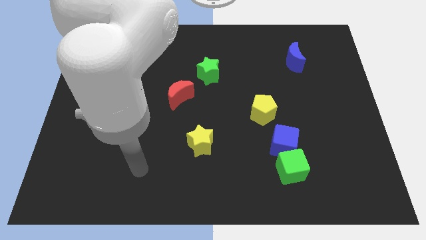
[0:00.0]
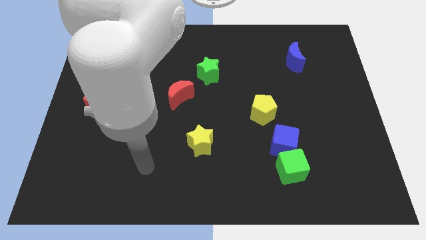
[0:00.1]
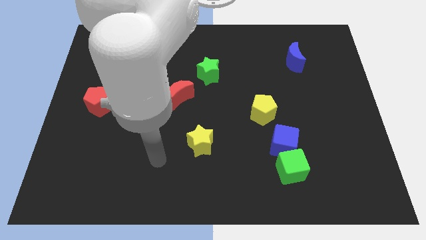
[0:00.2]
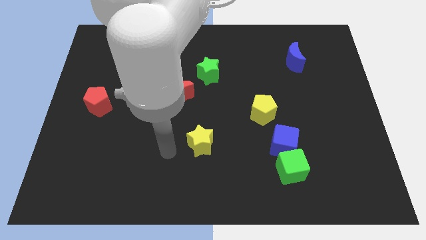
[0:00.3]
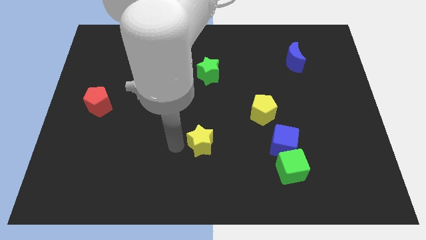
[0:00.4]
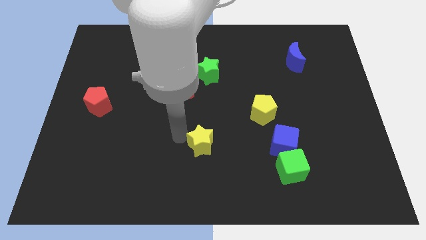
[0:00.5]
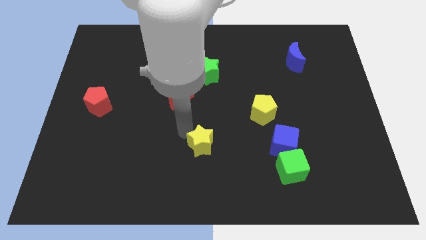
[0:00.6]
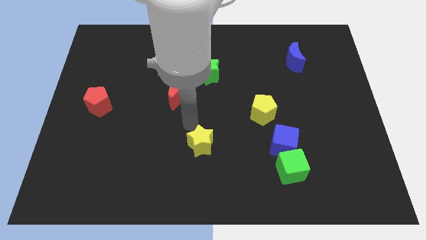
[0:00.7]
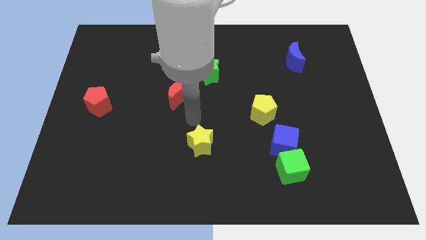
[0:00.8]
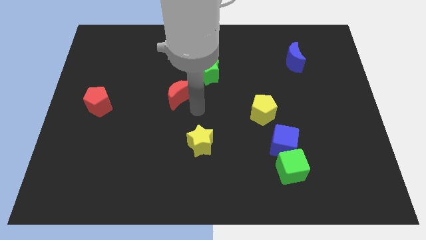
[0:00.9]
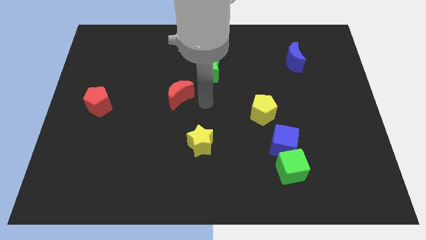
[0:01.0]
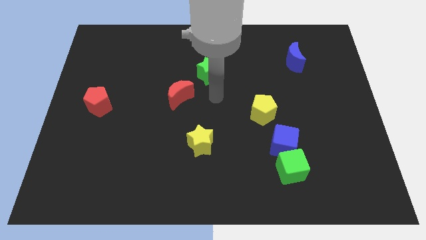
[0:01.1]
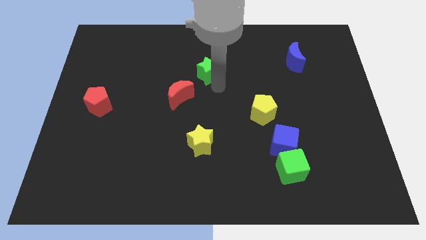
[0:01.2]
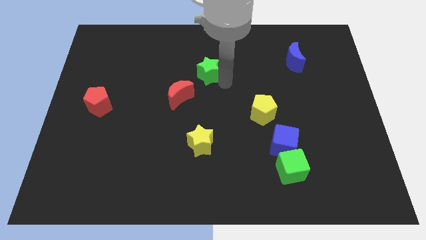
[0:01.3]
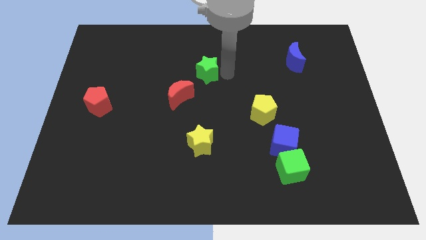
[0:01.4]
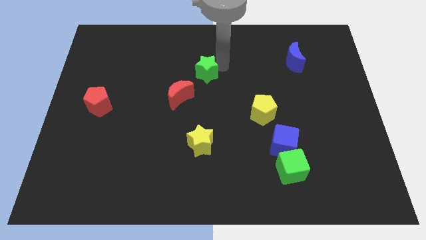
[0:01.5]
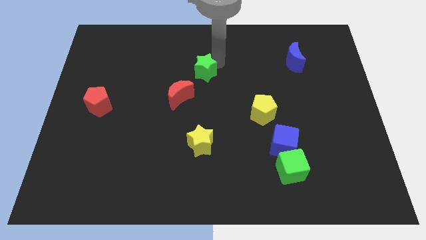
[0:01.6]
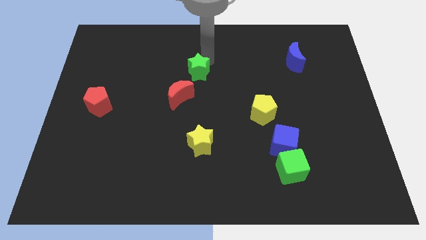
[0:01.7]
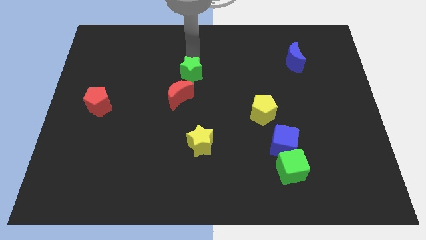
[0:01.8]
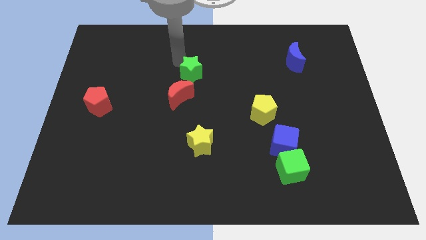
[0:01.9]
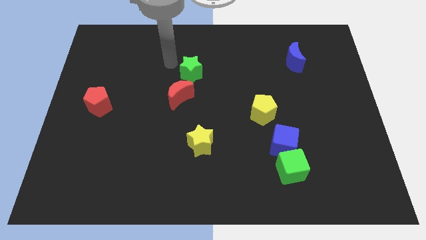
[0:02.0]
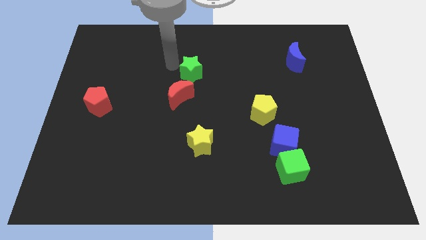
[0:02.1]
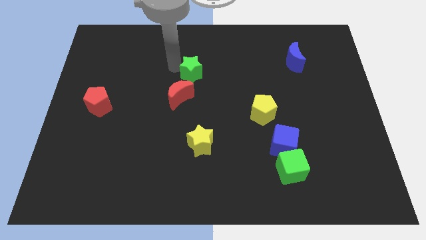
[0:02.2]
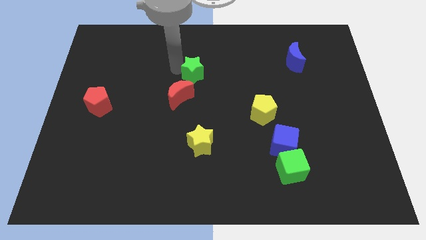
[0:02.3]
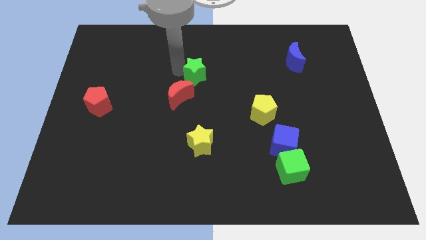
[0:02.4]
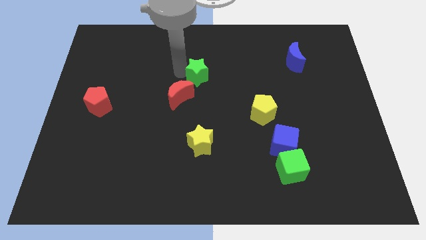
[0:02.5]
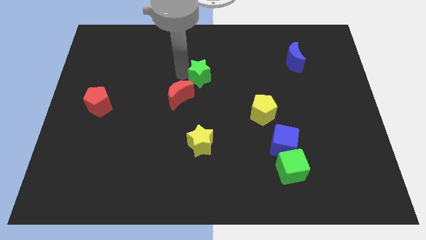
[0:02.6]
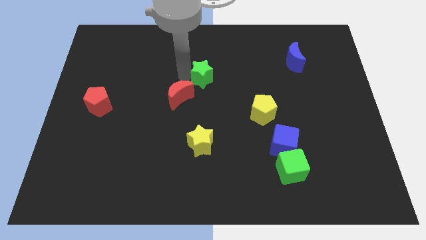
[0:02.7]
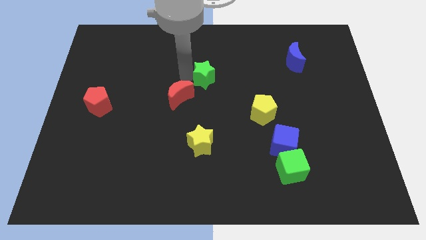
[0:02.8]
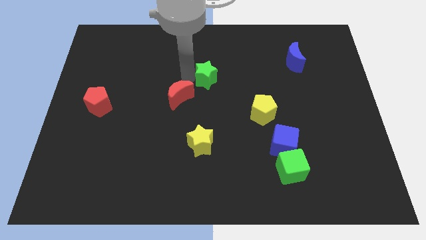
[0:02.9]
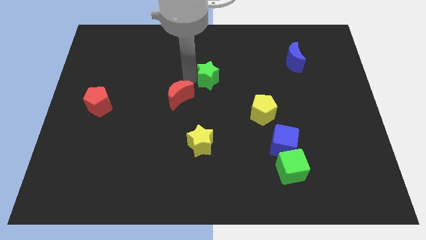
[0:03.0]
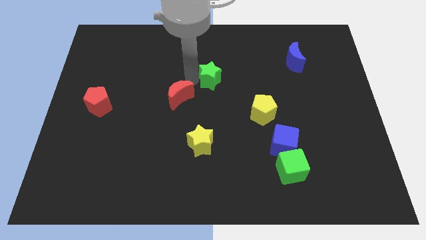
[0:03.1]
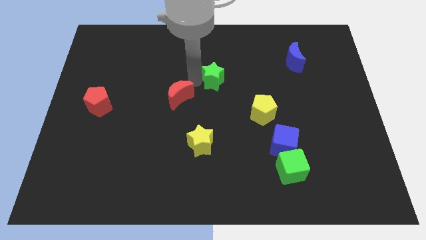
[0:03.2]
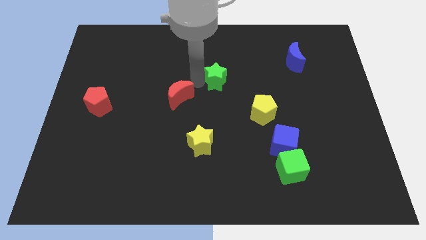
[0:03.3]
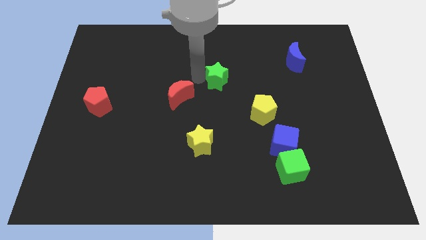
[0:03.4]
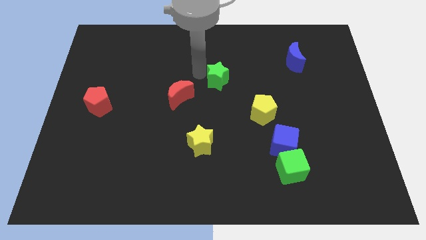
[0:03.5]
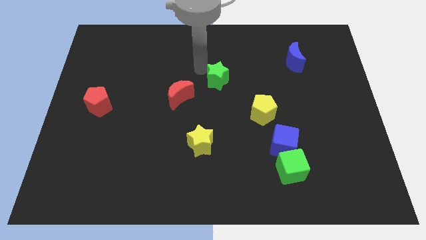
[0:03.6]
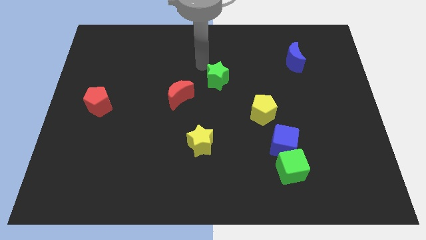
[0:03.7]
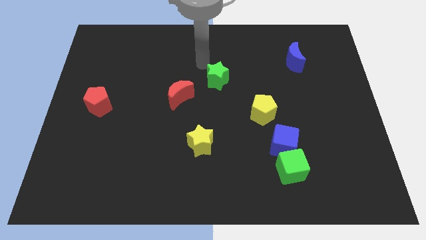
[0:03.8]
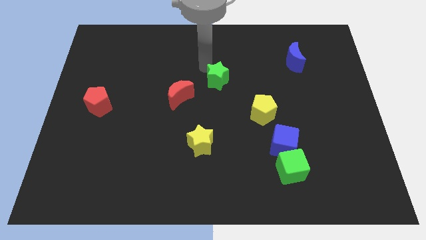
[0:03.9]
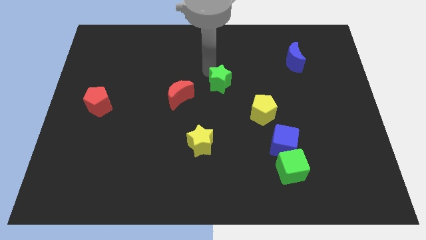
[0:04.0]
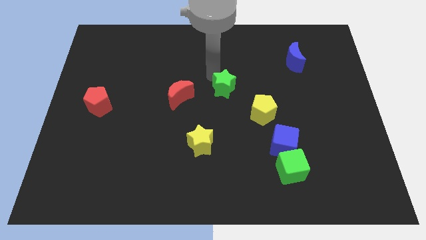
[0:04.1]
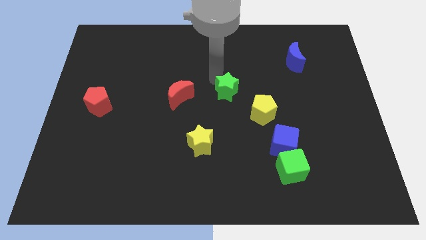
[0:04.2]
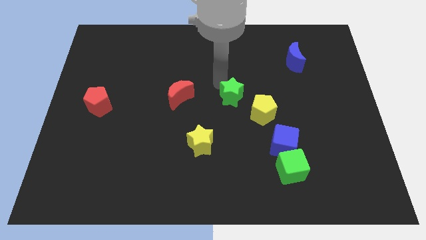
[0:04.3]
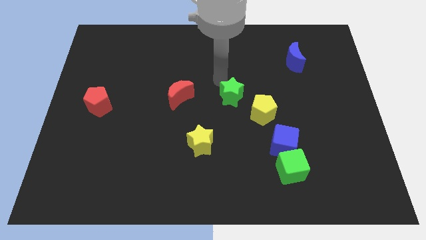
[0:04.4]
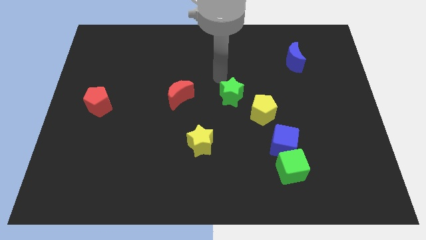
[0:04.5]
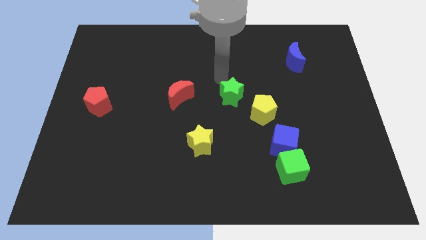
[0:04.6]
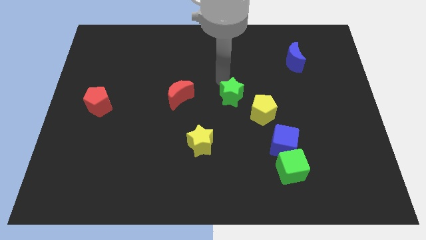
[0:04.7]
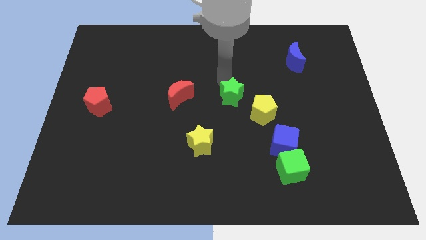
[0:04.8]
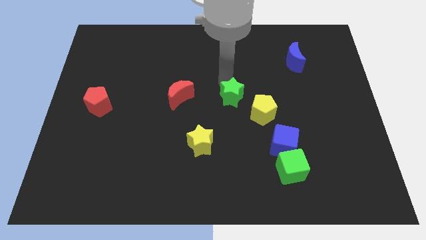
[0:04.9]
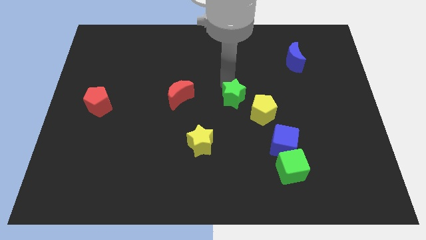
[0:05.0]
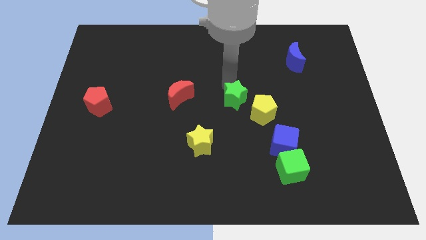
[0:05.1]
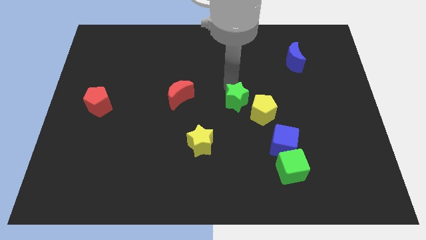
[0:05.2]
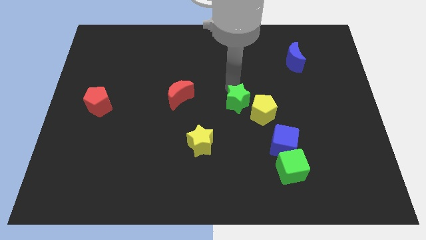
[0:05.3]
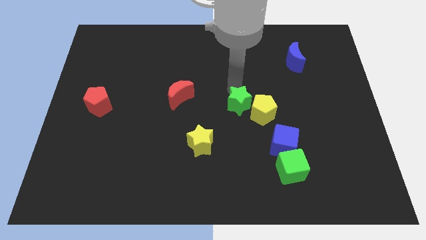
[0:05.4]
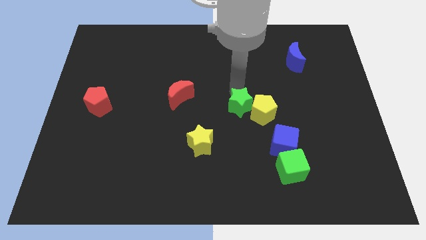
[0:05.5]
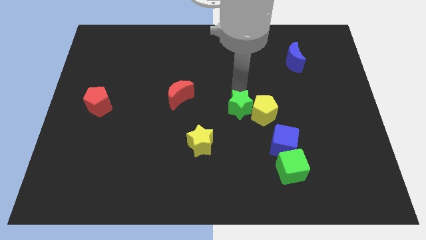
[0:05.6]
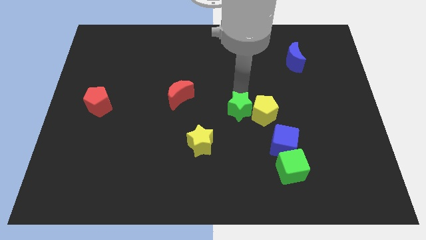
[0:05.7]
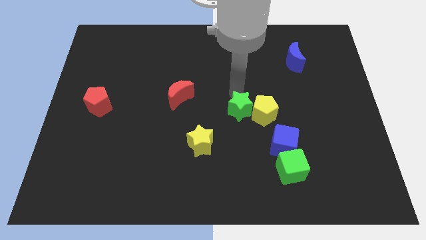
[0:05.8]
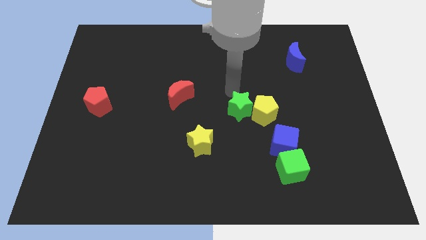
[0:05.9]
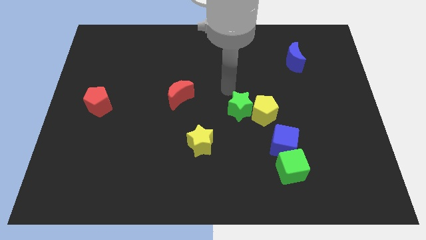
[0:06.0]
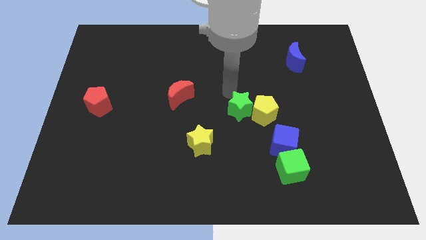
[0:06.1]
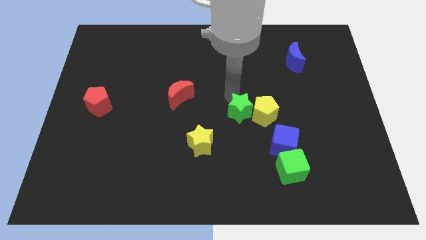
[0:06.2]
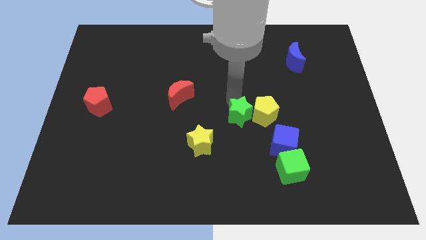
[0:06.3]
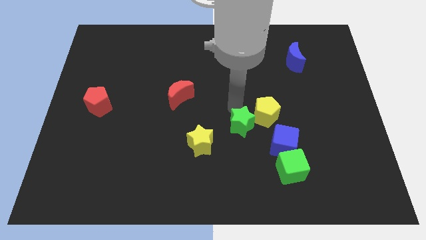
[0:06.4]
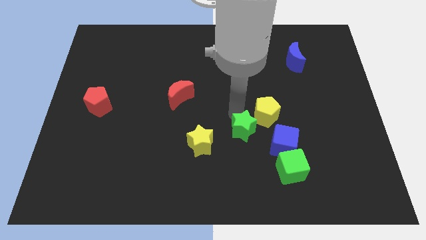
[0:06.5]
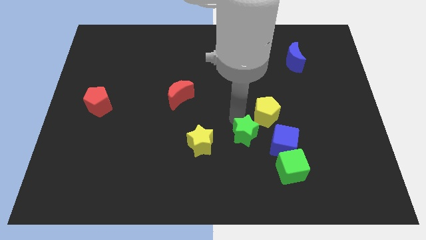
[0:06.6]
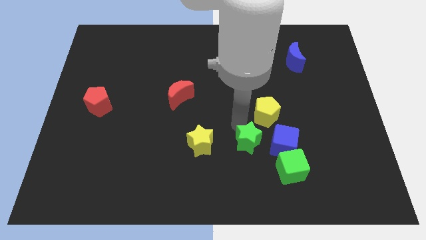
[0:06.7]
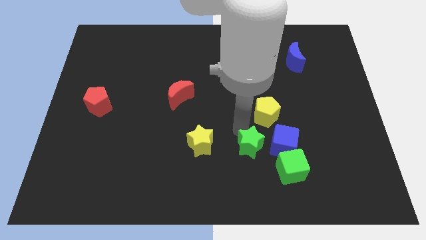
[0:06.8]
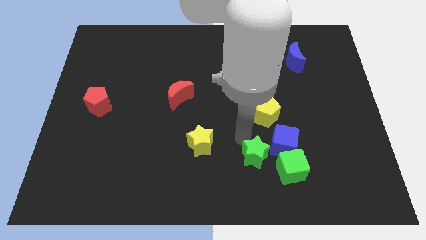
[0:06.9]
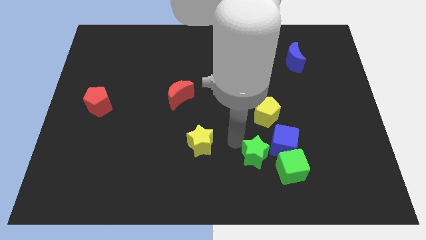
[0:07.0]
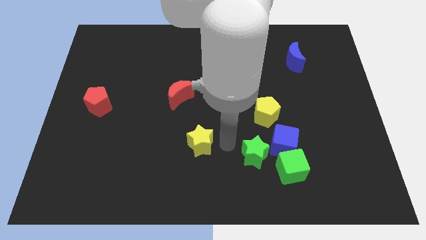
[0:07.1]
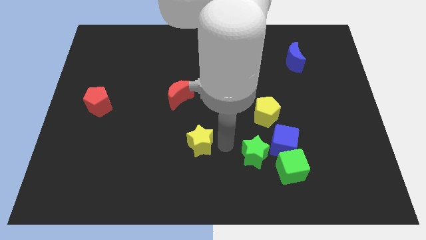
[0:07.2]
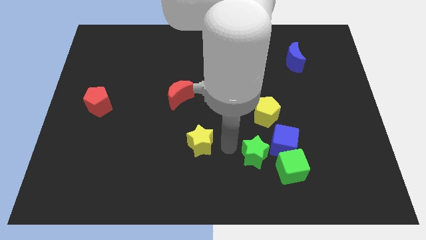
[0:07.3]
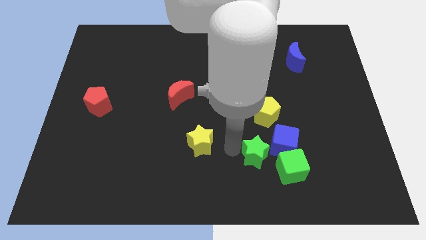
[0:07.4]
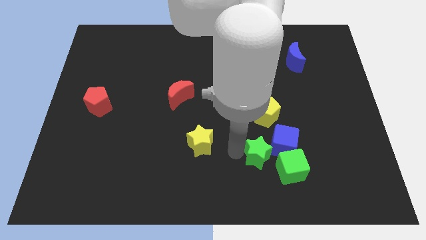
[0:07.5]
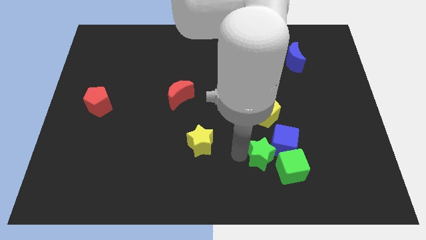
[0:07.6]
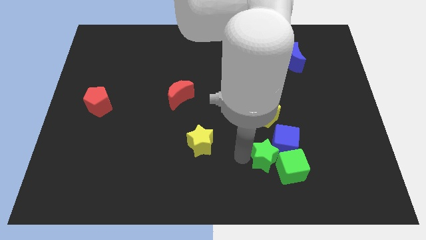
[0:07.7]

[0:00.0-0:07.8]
put the green star towards the green cube
